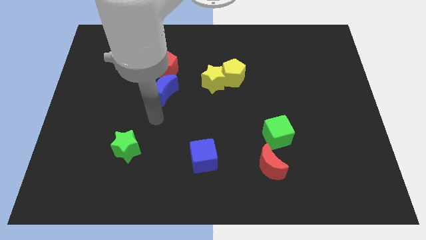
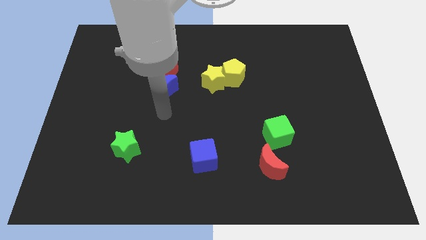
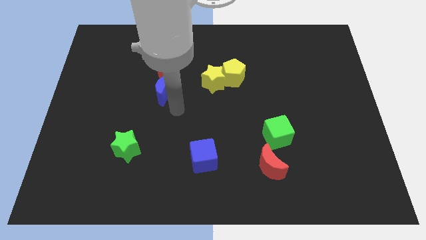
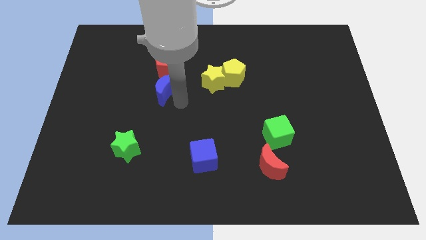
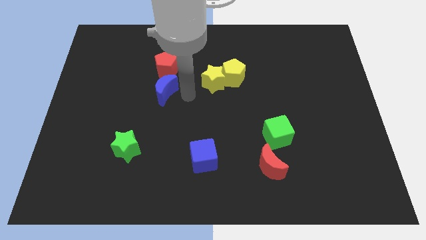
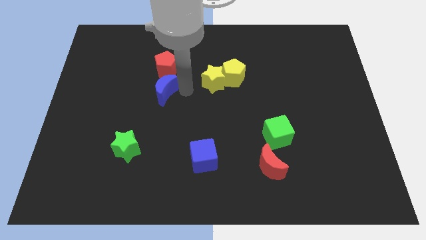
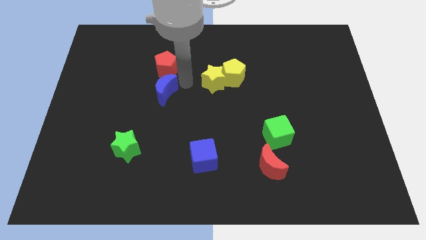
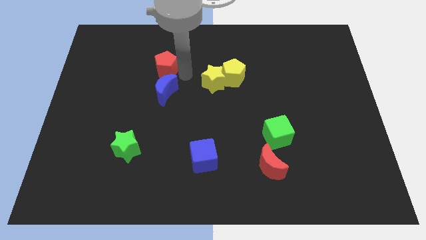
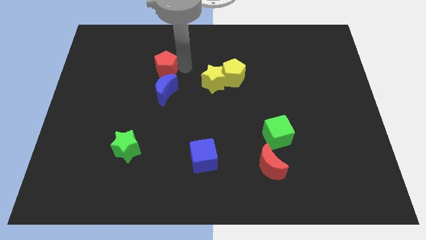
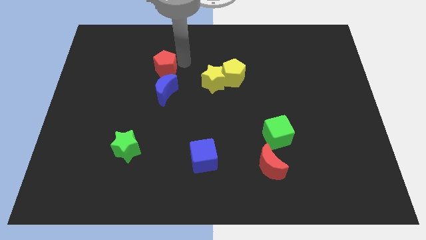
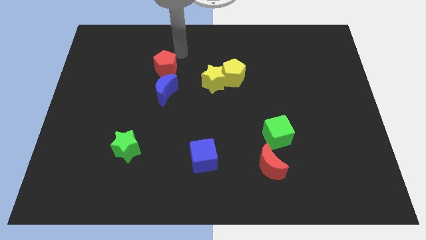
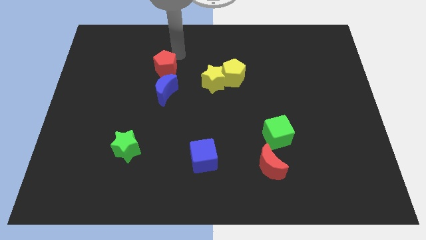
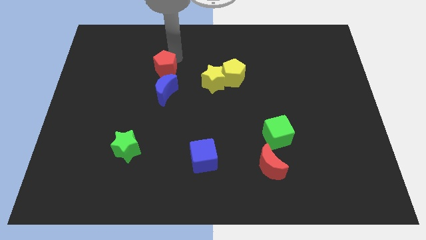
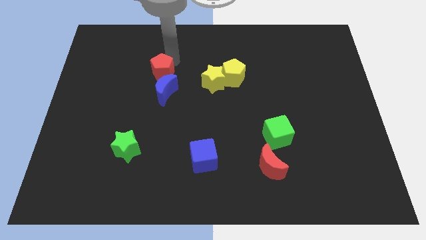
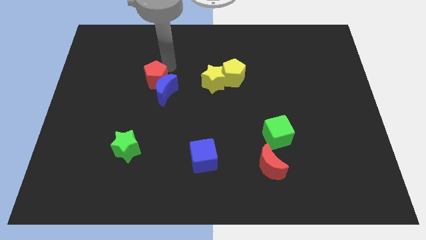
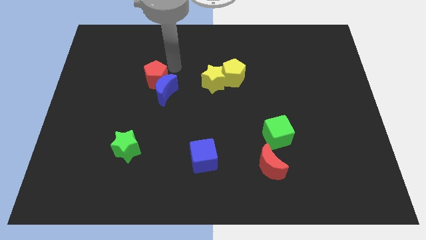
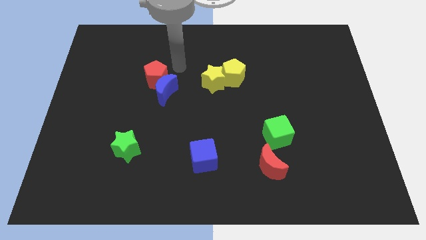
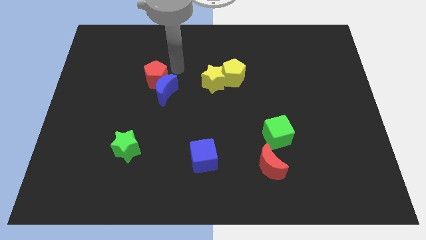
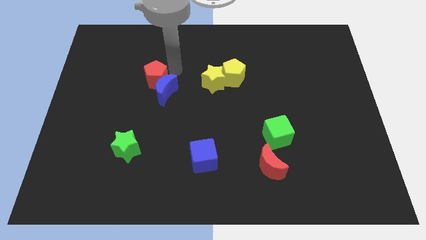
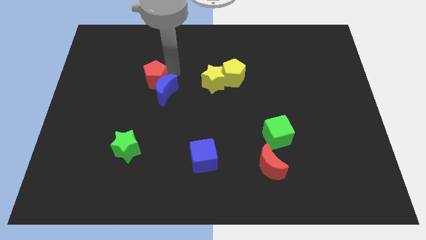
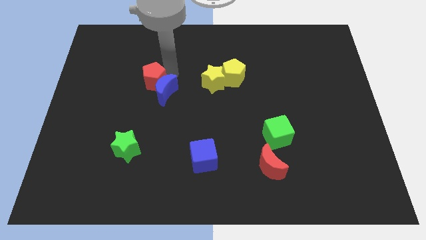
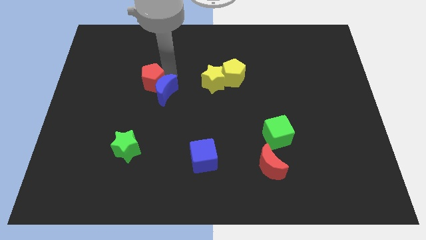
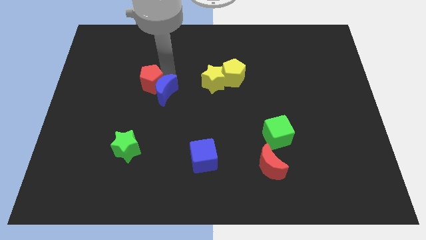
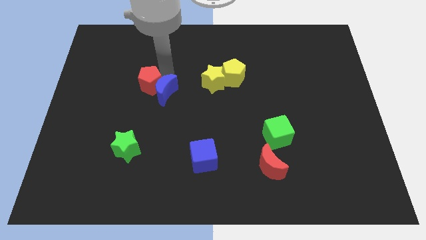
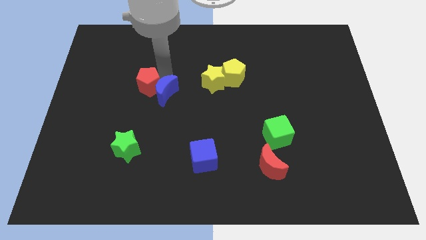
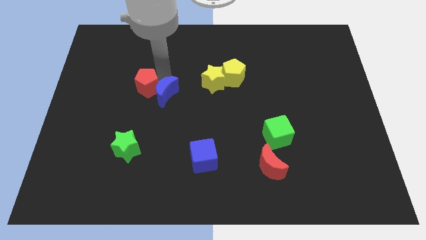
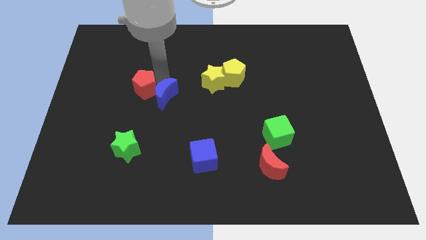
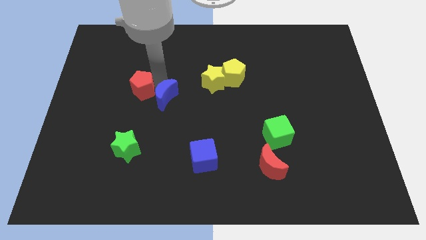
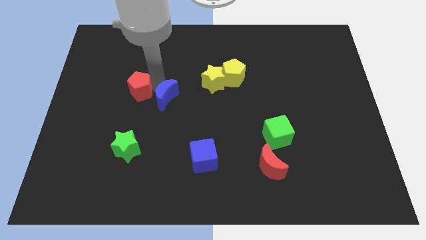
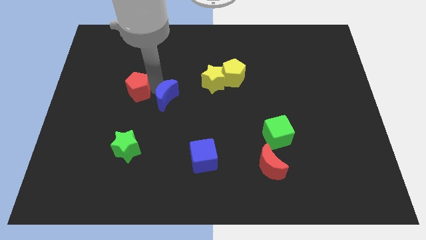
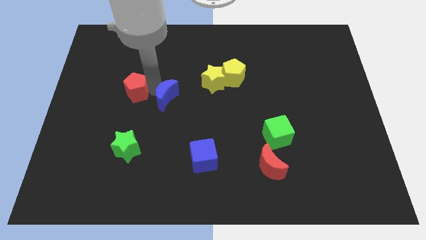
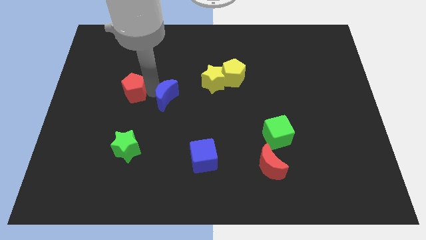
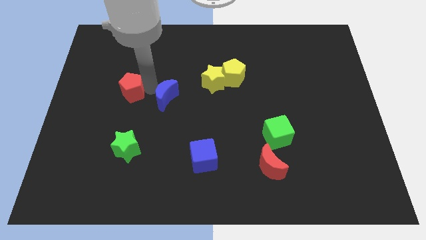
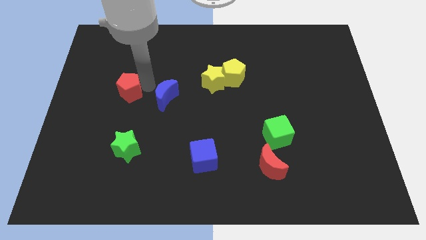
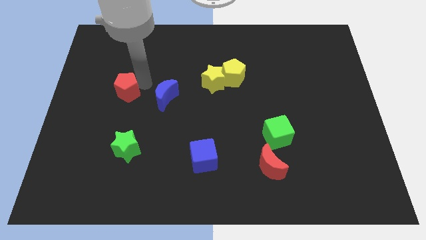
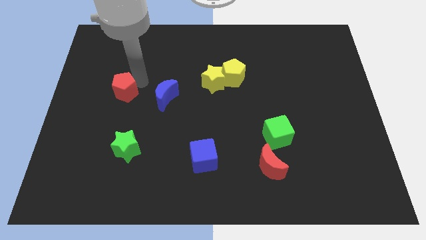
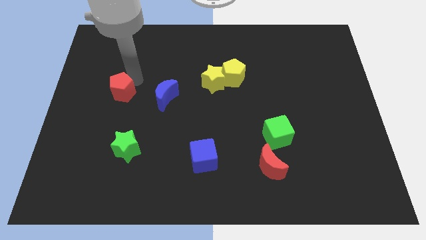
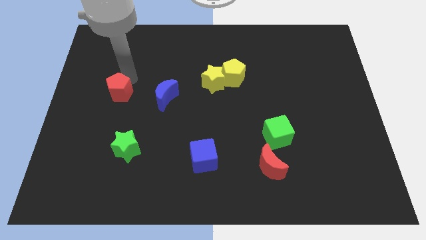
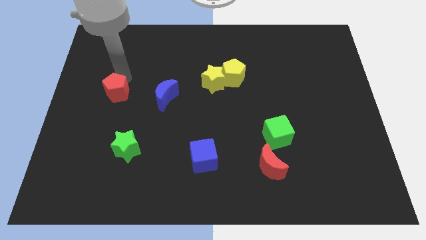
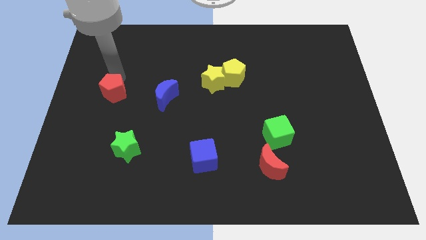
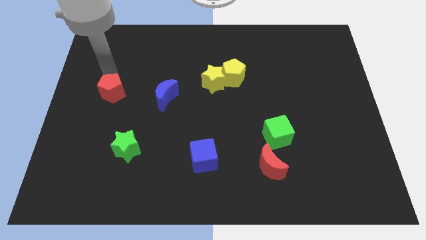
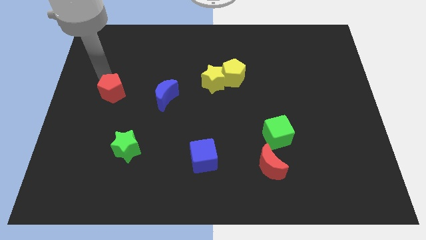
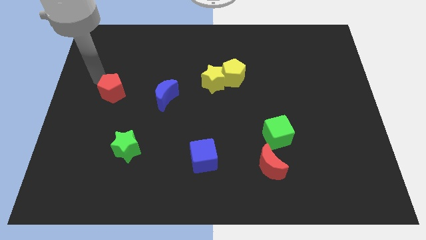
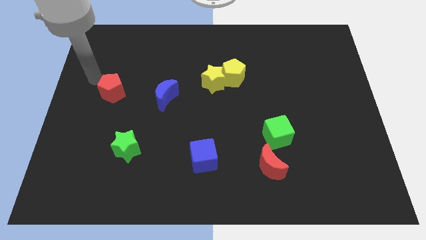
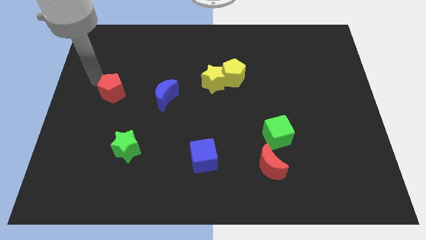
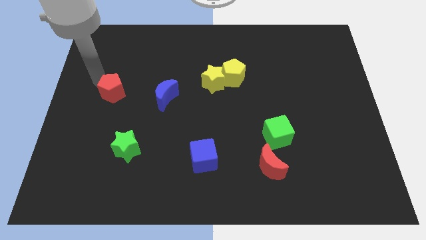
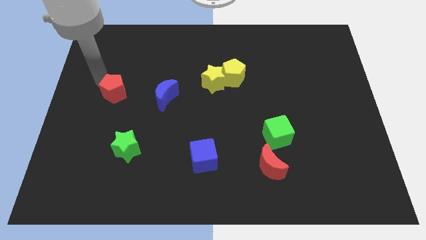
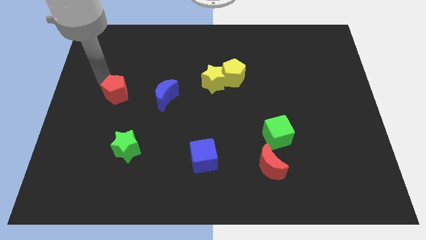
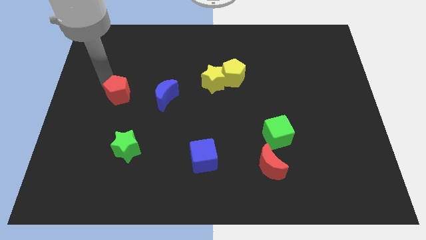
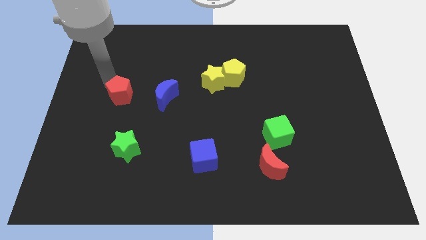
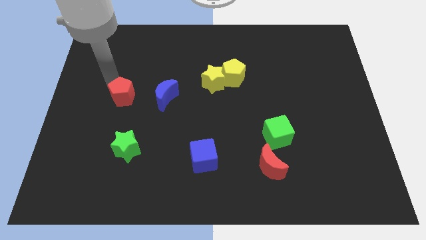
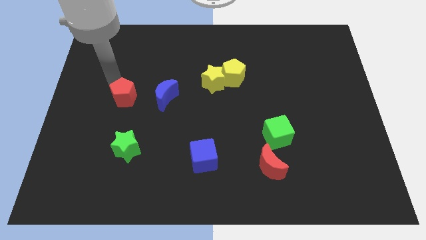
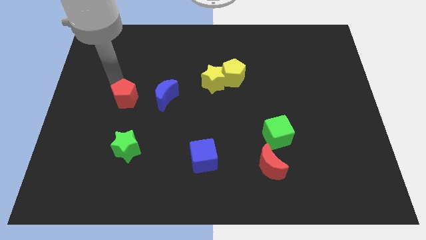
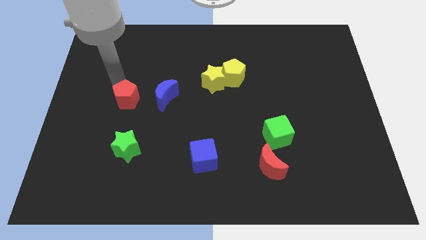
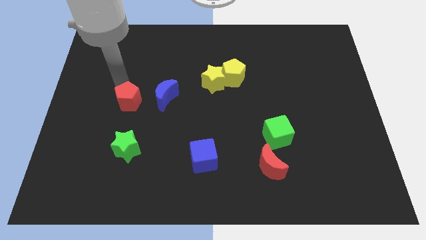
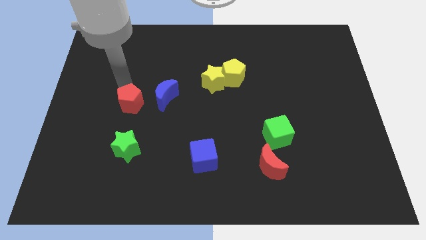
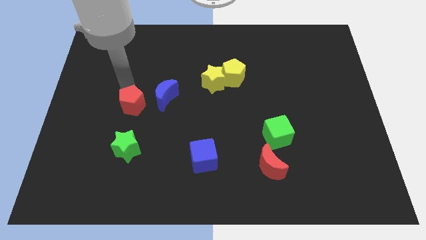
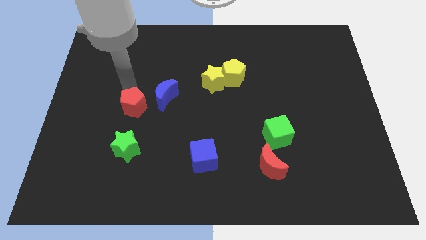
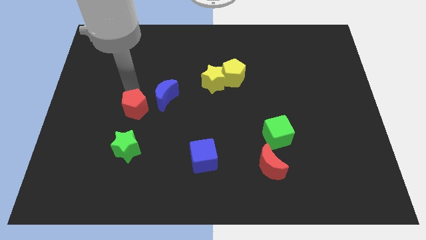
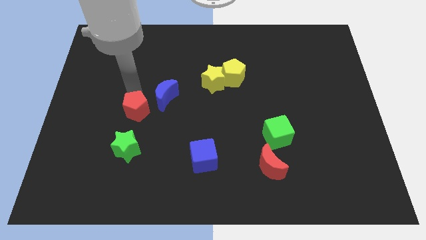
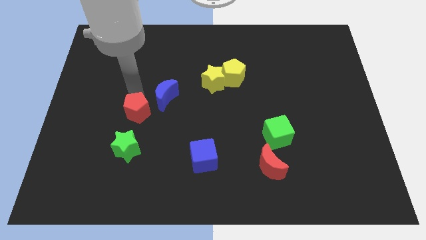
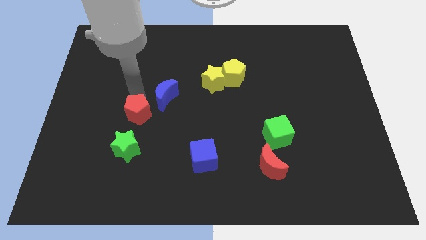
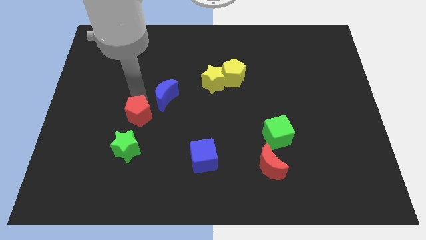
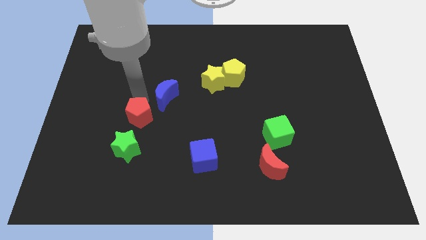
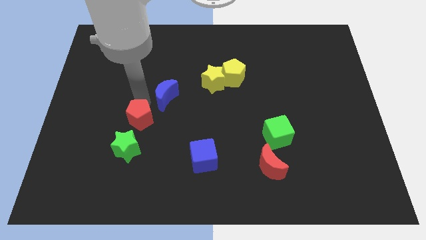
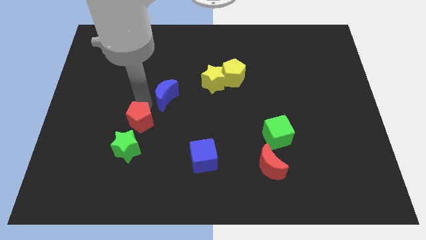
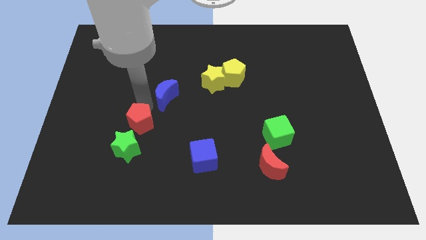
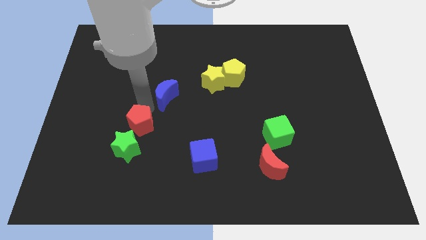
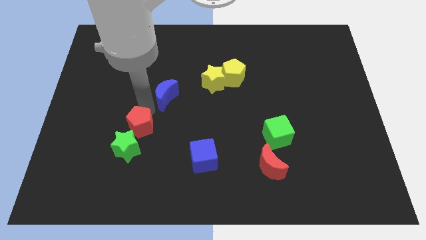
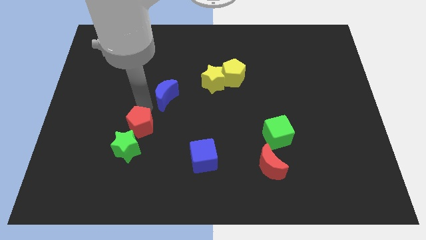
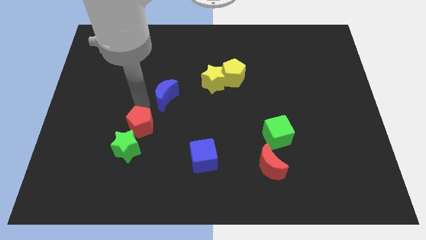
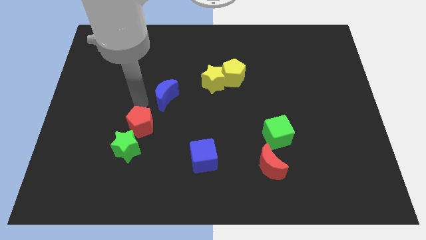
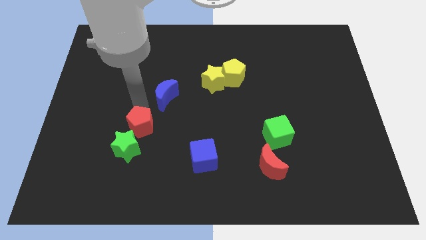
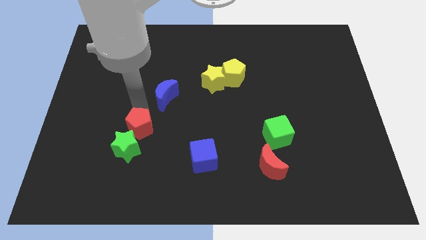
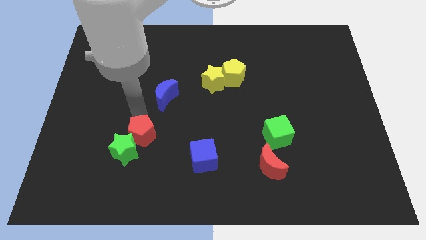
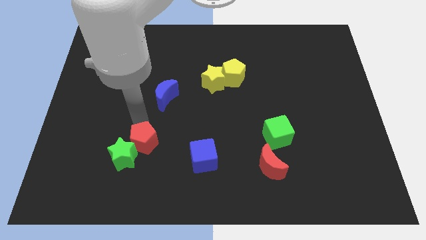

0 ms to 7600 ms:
put the red pentagon to the left of the blue cube

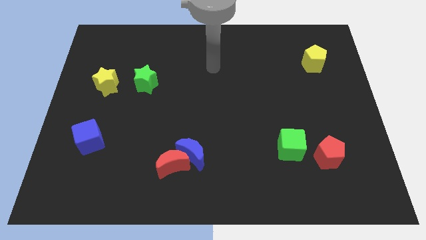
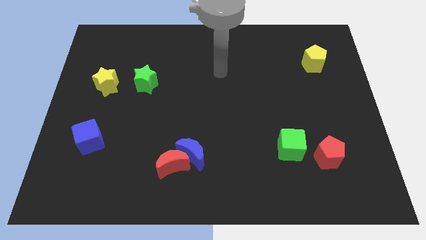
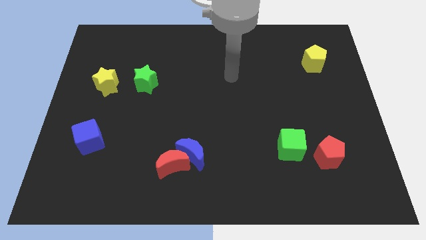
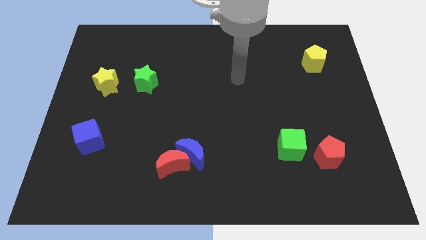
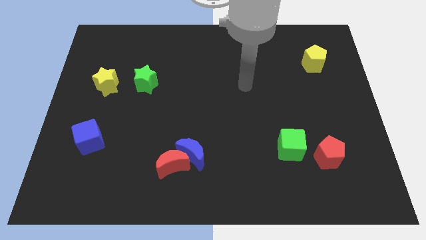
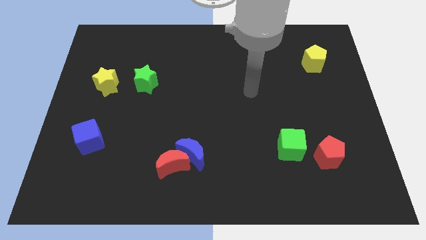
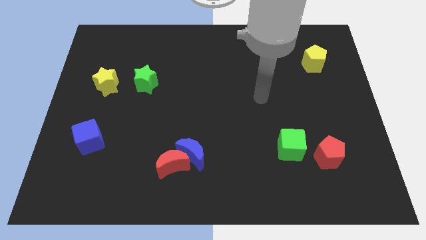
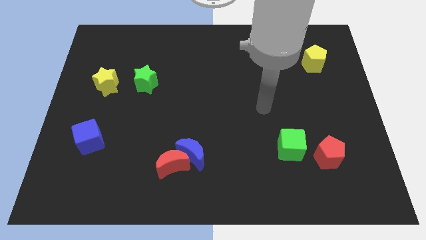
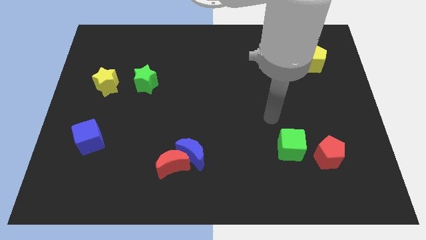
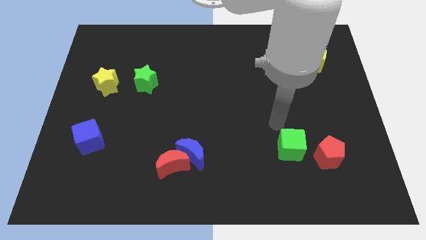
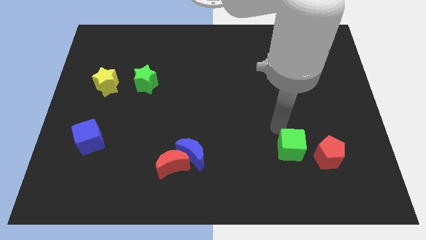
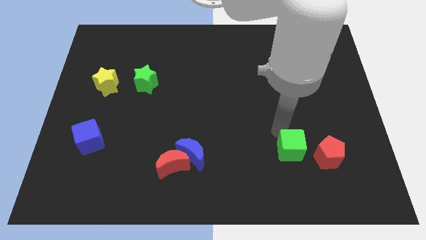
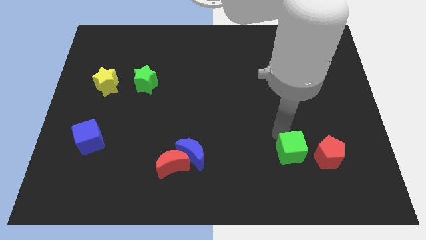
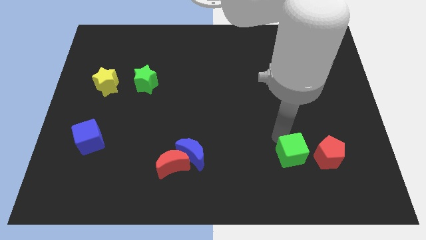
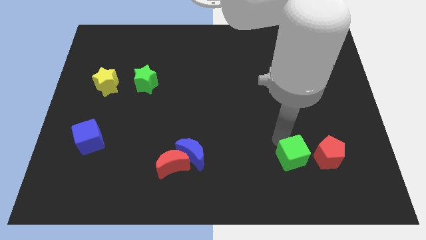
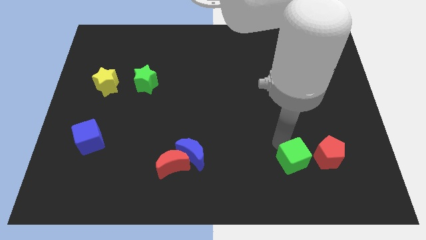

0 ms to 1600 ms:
move the green cube to the bottom left of the red pentagon
